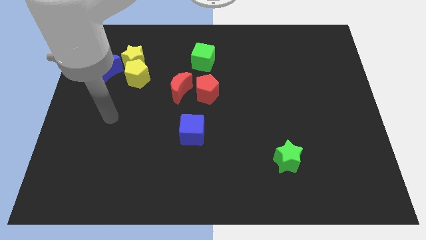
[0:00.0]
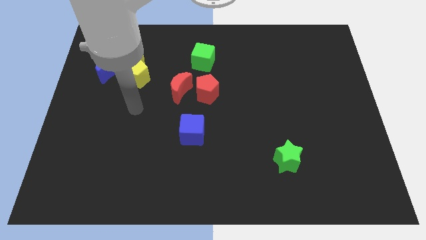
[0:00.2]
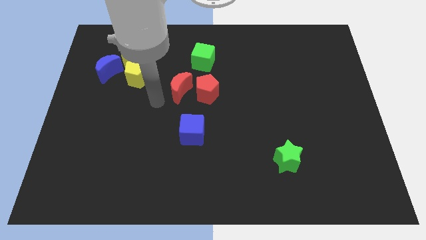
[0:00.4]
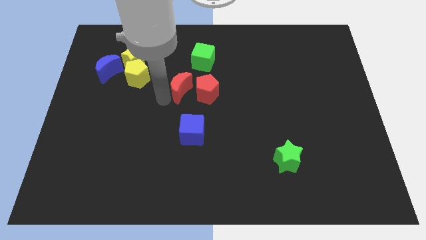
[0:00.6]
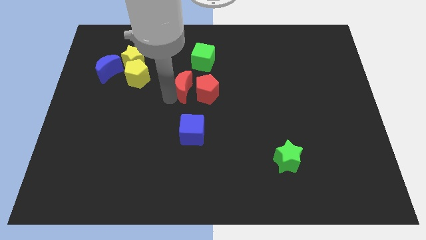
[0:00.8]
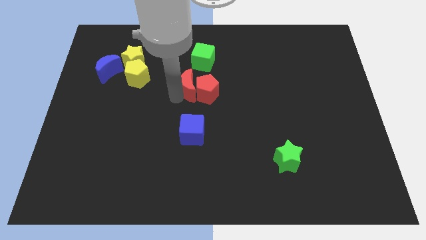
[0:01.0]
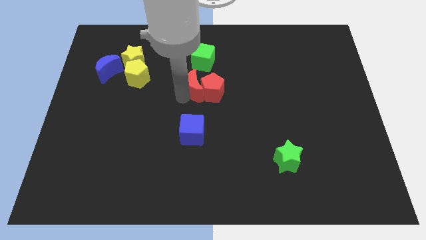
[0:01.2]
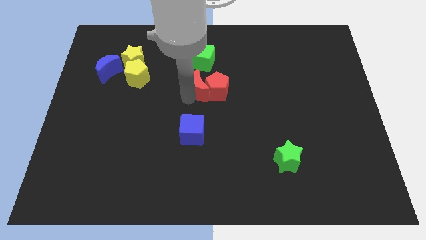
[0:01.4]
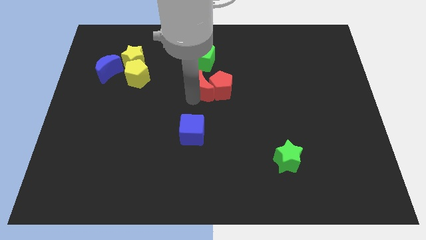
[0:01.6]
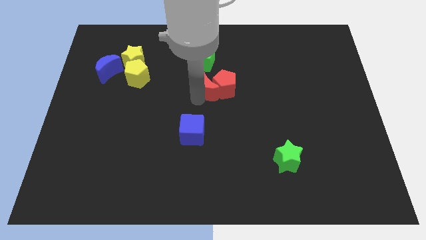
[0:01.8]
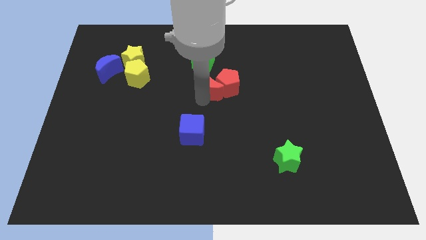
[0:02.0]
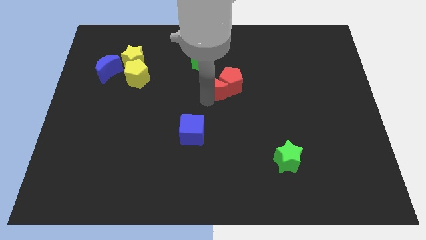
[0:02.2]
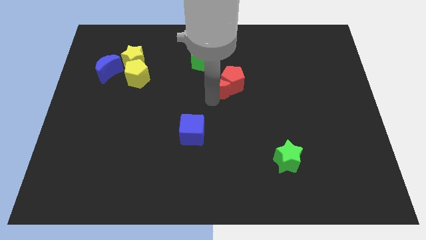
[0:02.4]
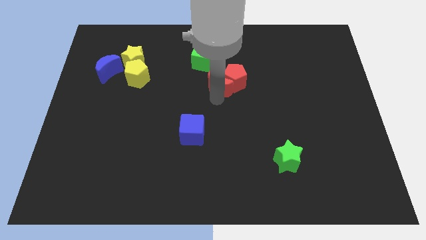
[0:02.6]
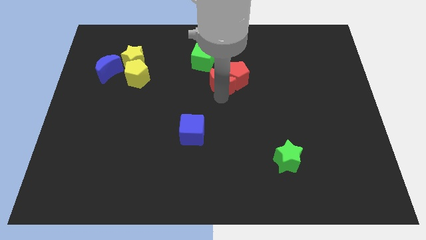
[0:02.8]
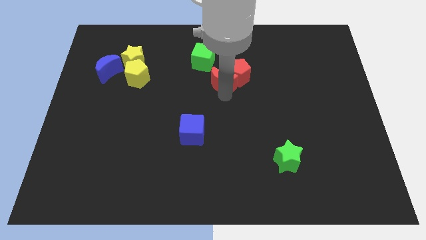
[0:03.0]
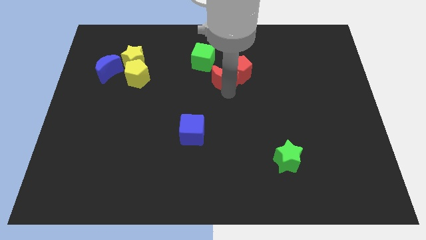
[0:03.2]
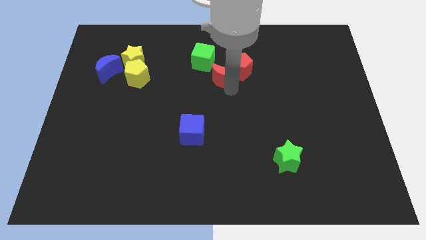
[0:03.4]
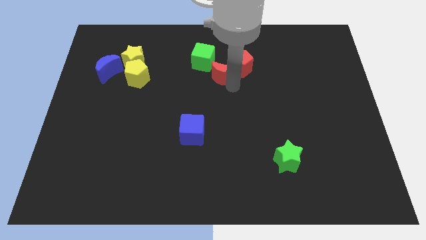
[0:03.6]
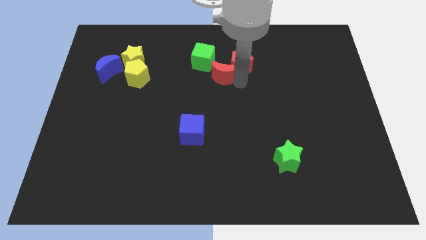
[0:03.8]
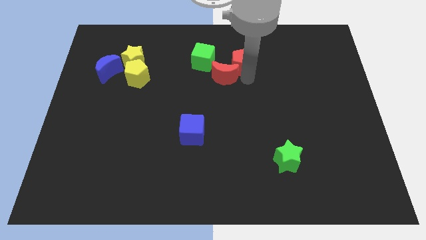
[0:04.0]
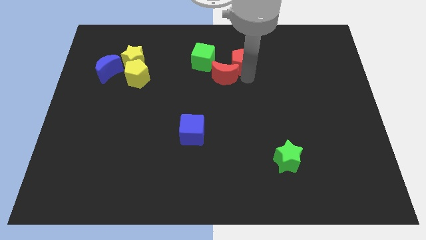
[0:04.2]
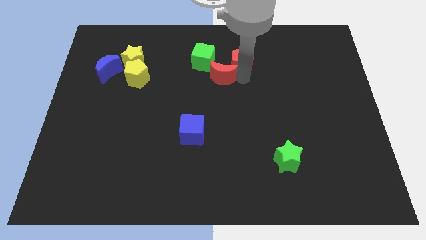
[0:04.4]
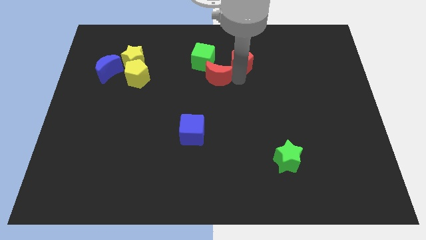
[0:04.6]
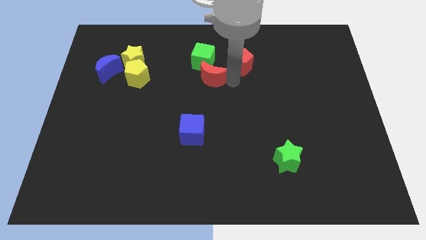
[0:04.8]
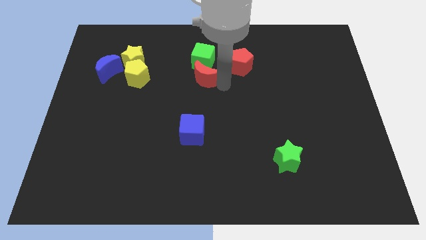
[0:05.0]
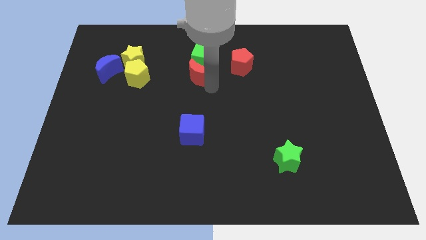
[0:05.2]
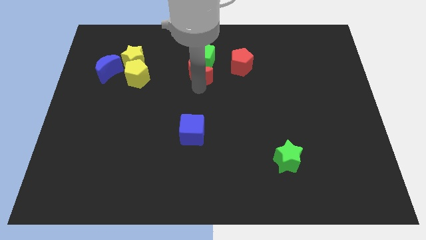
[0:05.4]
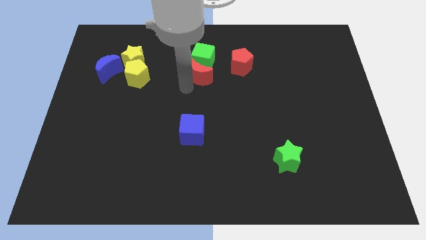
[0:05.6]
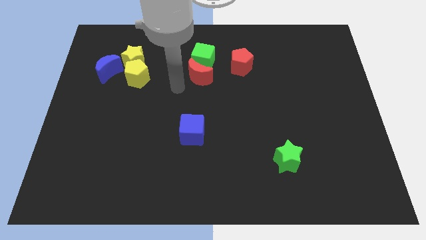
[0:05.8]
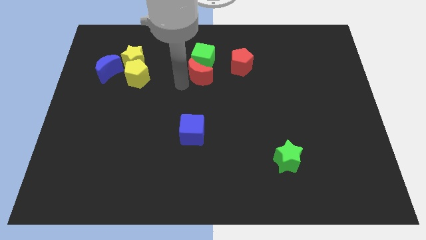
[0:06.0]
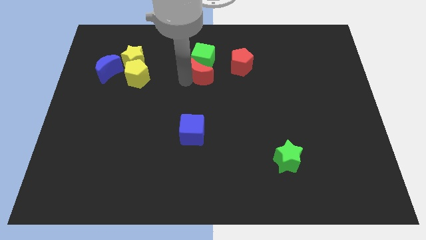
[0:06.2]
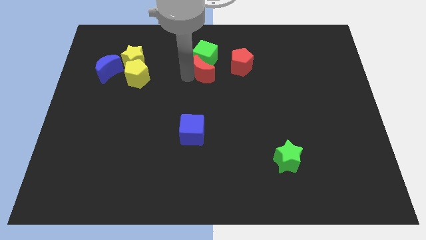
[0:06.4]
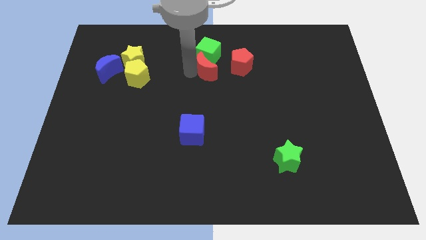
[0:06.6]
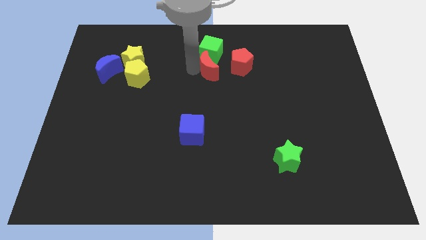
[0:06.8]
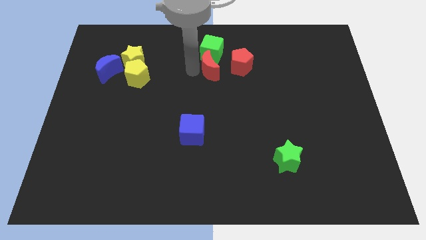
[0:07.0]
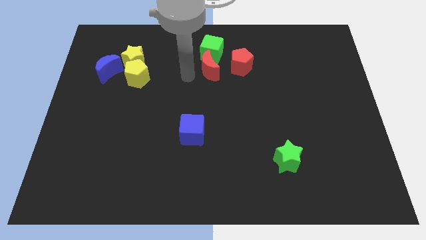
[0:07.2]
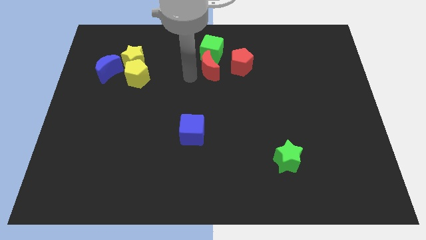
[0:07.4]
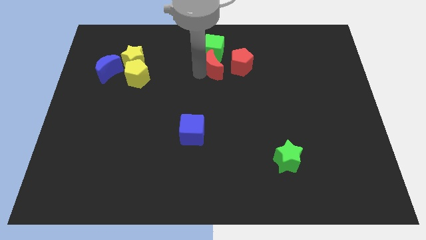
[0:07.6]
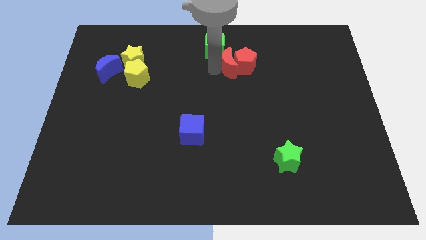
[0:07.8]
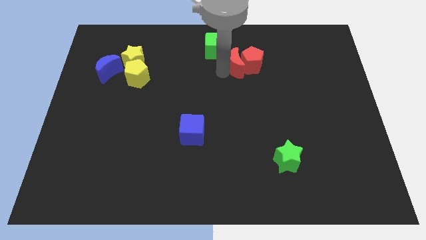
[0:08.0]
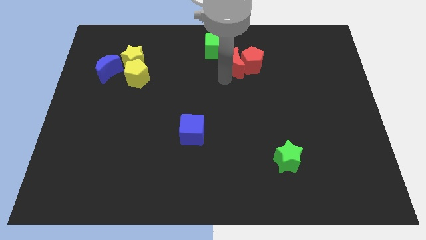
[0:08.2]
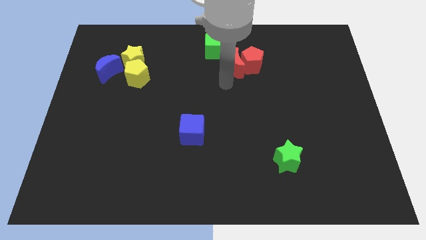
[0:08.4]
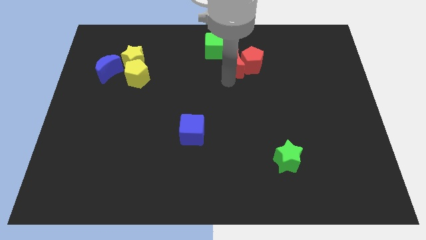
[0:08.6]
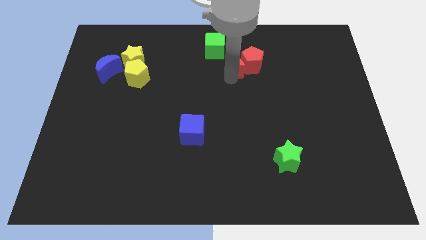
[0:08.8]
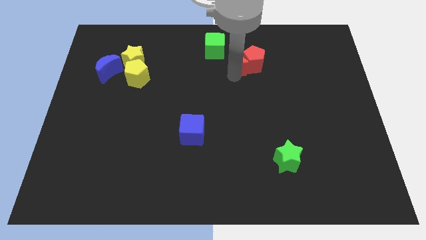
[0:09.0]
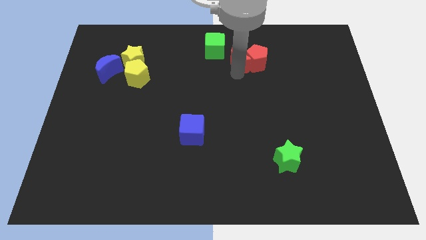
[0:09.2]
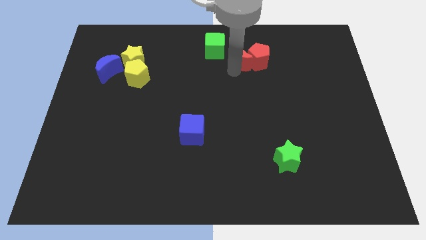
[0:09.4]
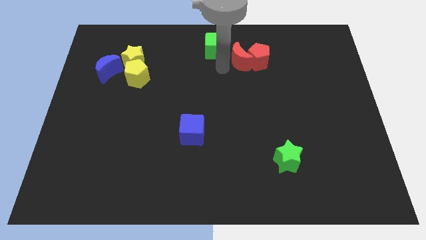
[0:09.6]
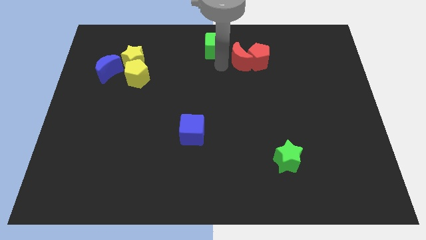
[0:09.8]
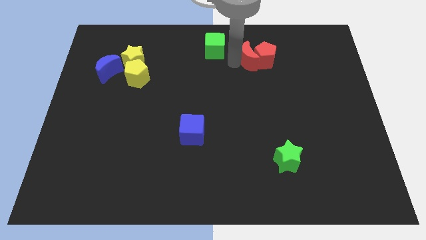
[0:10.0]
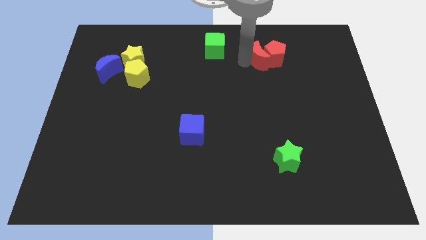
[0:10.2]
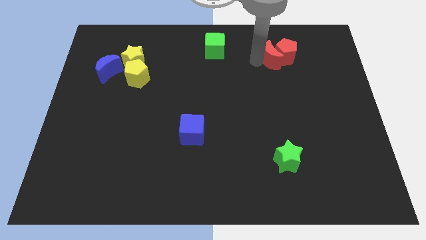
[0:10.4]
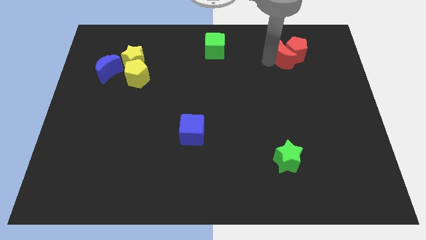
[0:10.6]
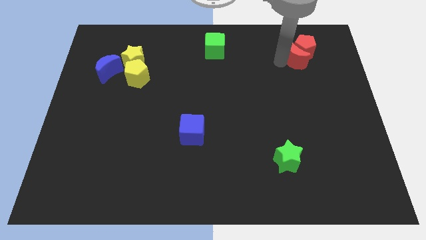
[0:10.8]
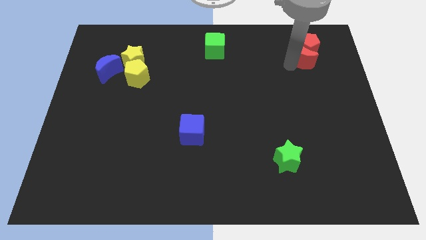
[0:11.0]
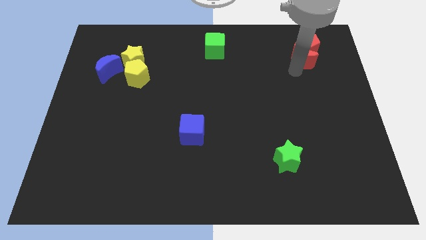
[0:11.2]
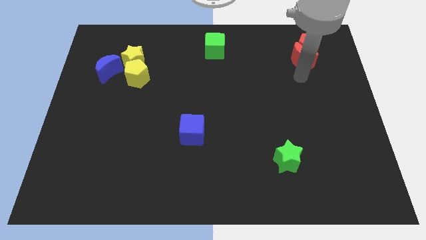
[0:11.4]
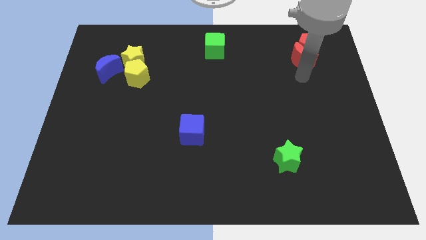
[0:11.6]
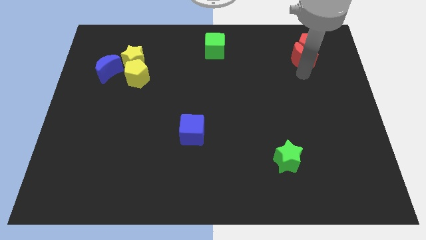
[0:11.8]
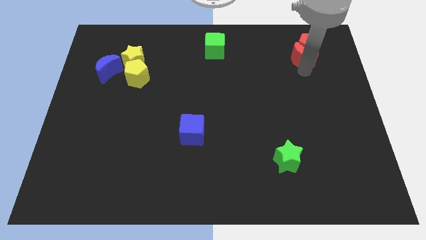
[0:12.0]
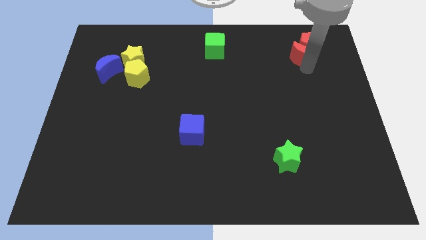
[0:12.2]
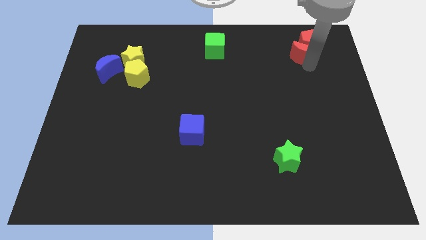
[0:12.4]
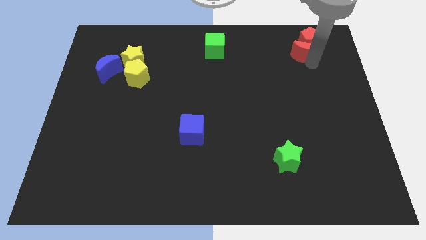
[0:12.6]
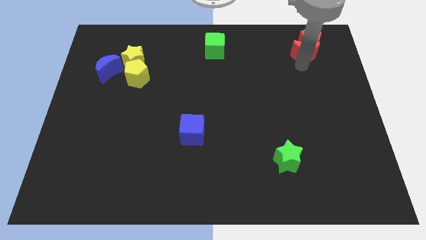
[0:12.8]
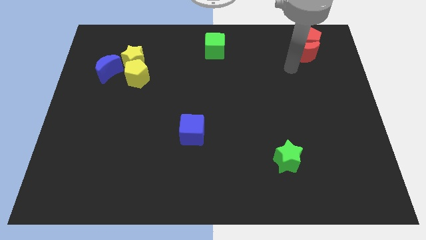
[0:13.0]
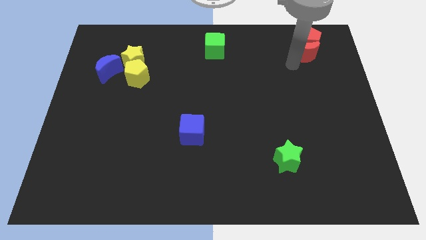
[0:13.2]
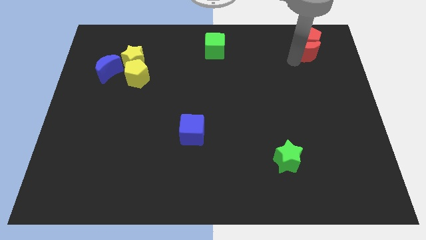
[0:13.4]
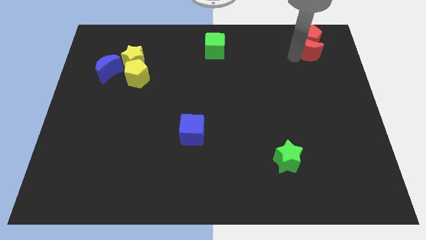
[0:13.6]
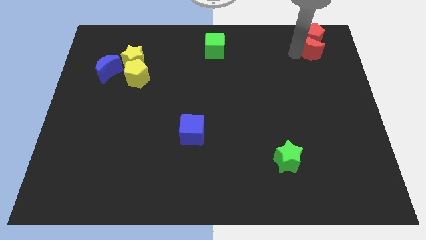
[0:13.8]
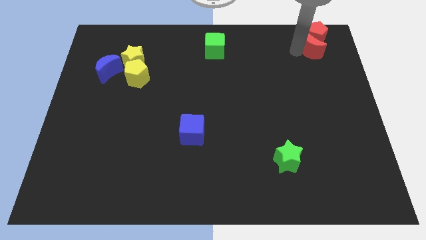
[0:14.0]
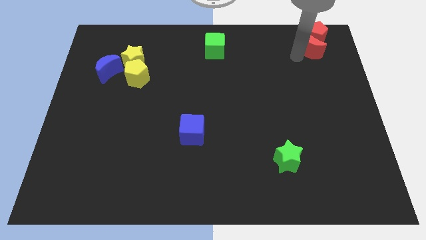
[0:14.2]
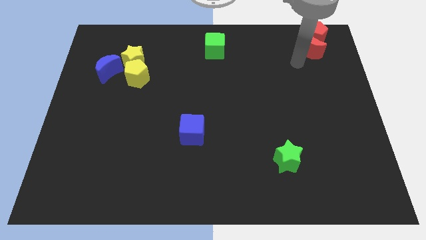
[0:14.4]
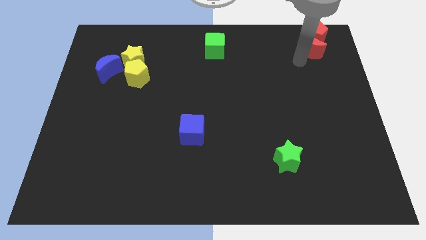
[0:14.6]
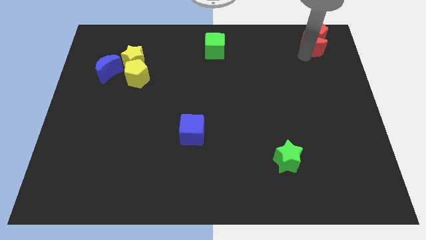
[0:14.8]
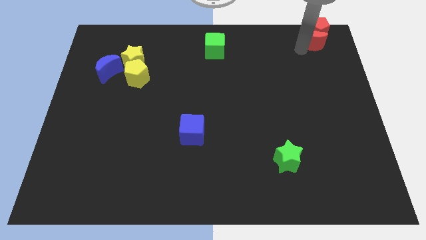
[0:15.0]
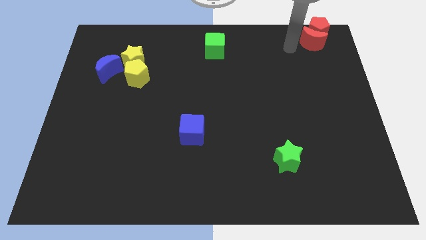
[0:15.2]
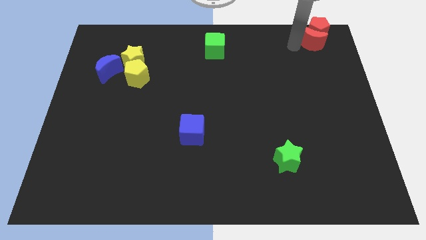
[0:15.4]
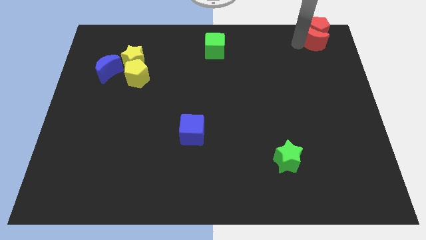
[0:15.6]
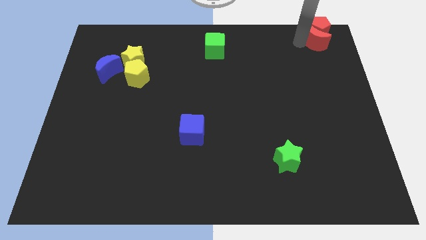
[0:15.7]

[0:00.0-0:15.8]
push the red moon to the top right
